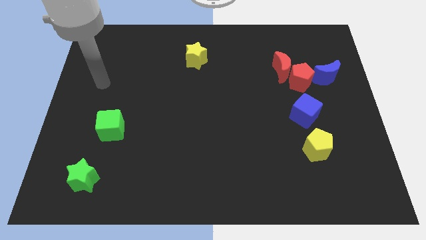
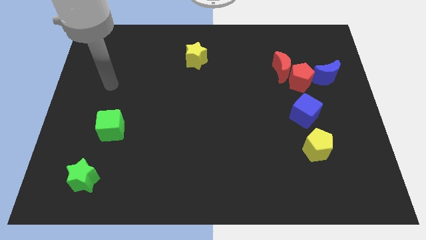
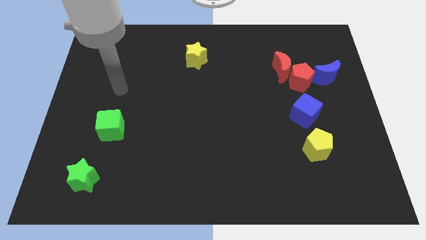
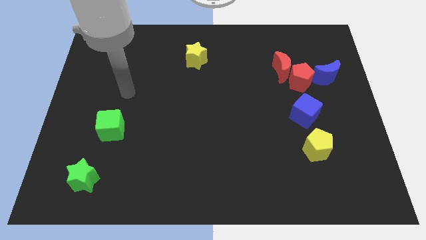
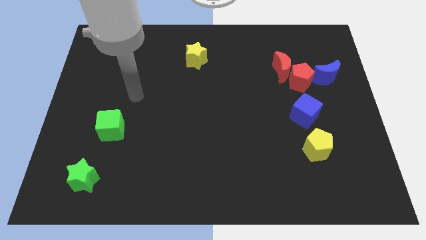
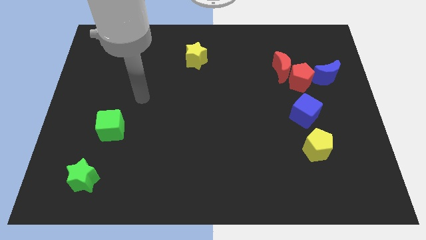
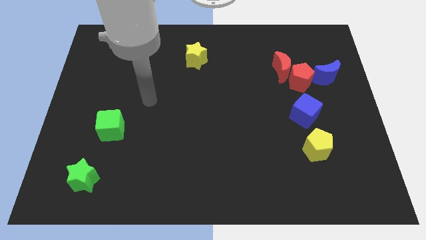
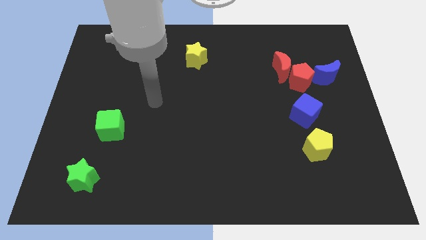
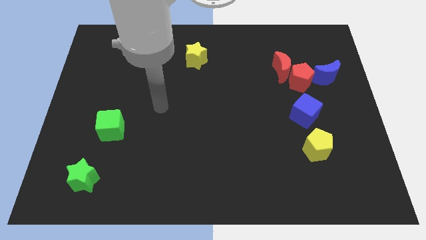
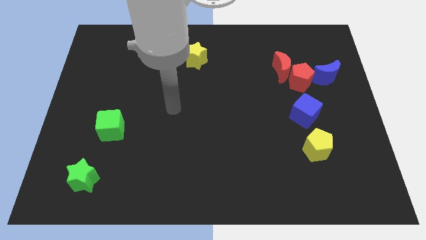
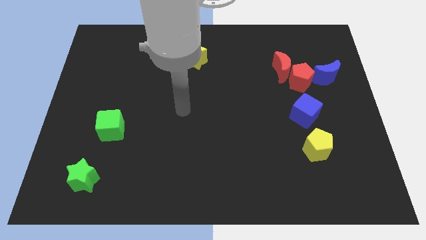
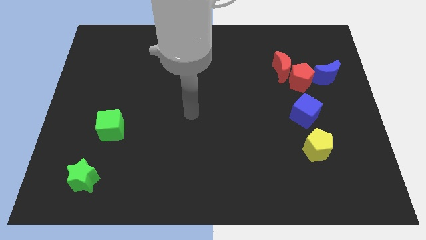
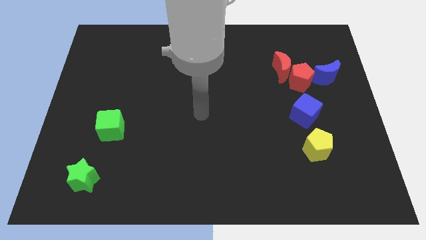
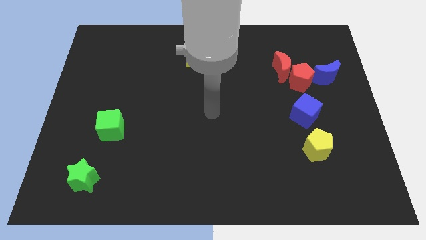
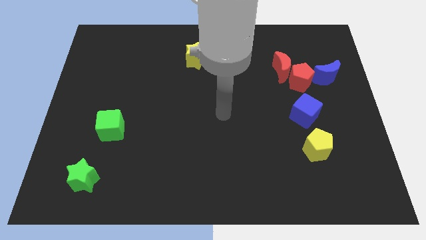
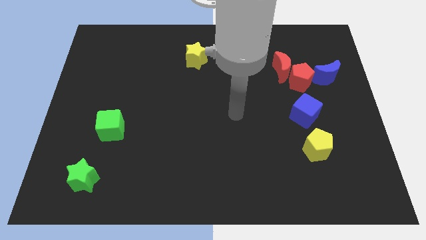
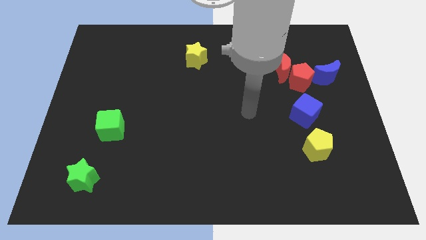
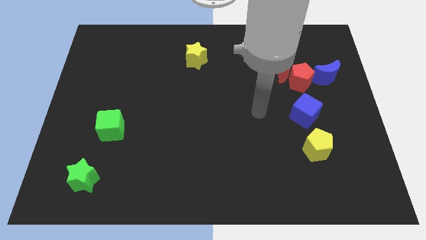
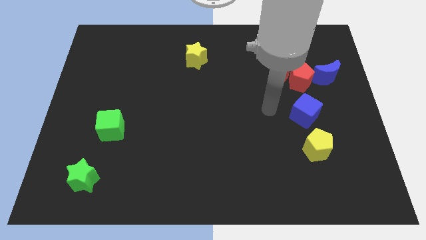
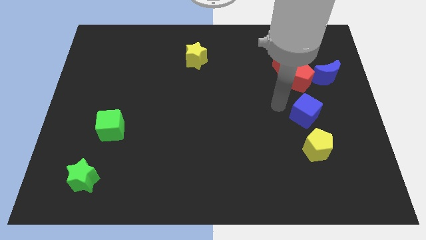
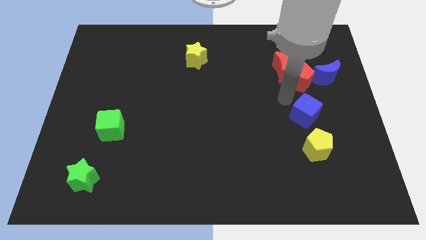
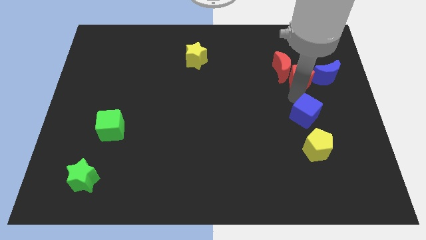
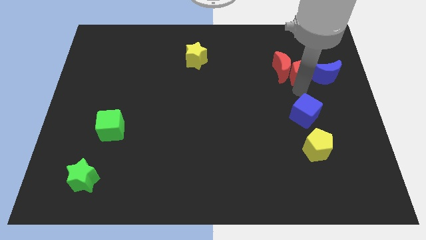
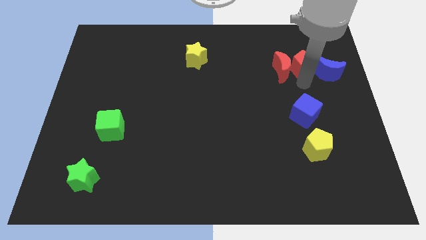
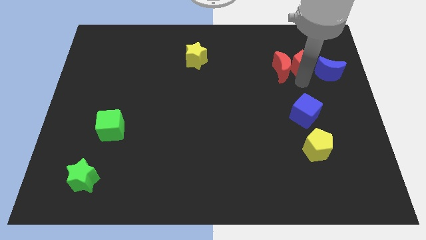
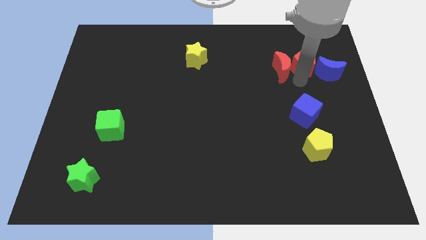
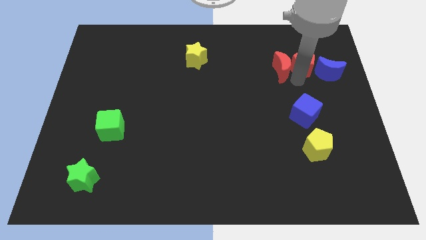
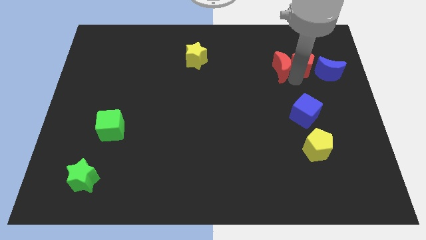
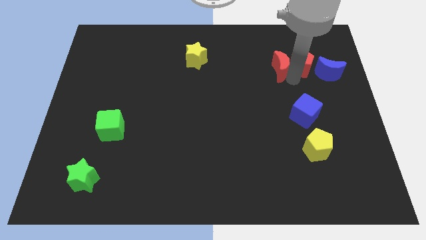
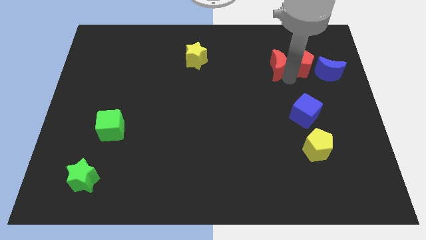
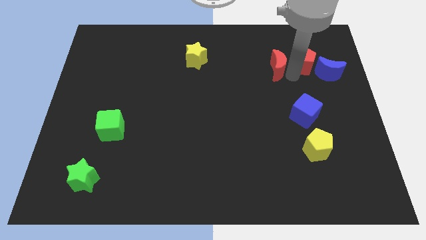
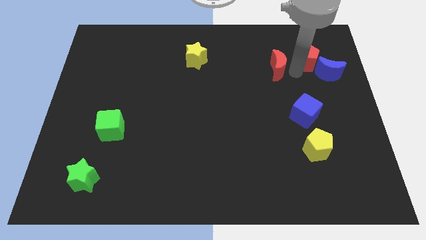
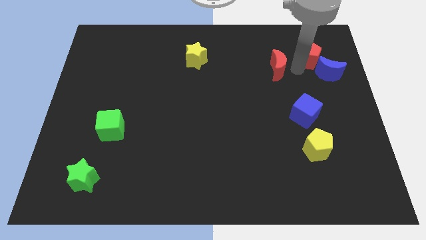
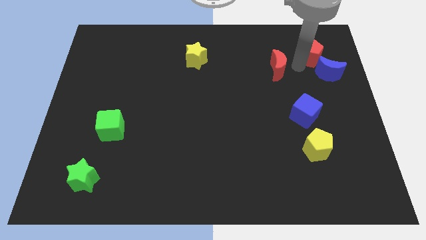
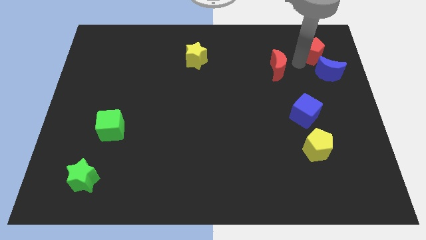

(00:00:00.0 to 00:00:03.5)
separate the red moon from the red pentagon

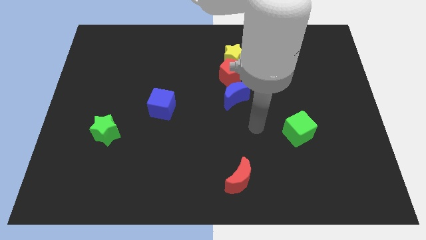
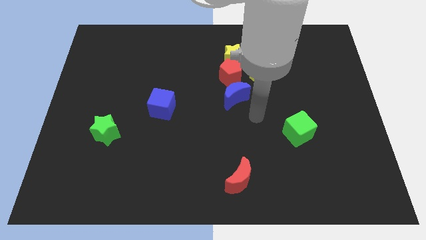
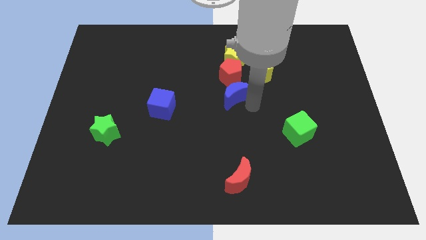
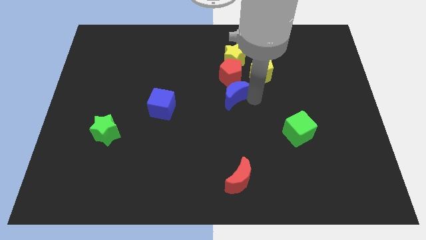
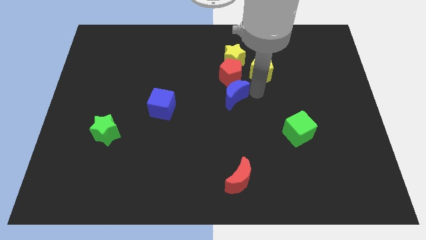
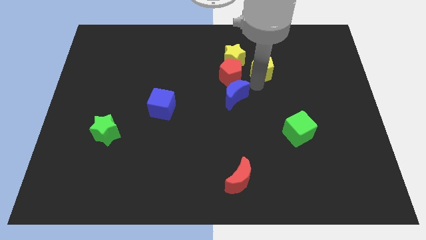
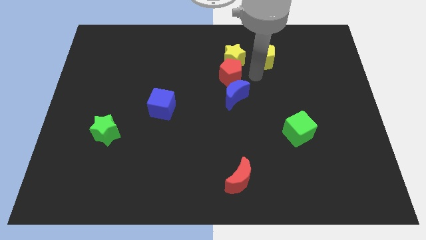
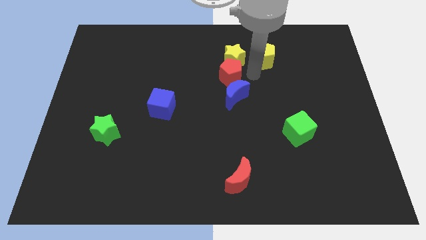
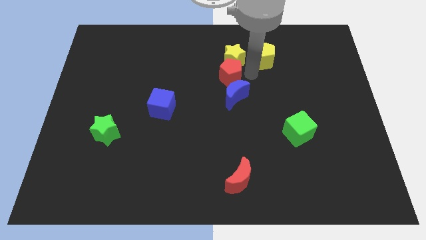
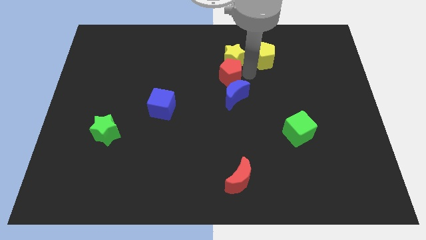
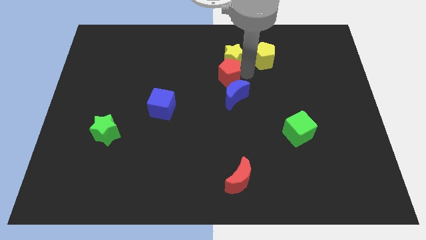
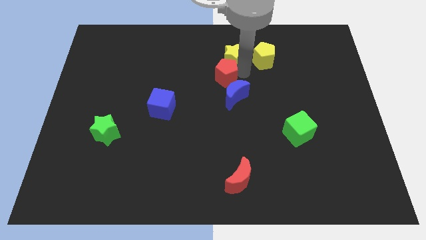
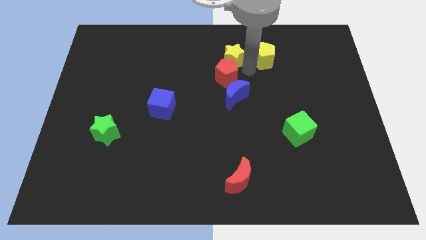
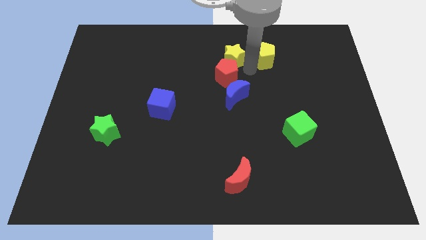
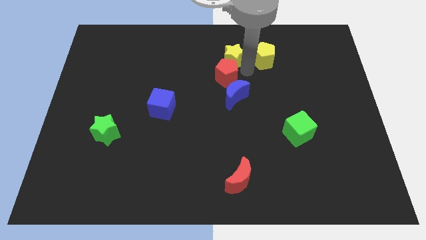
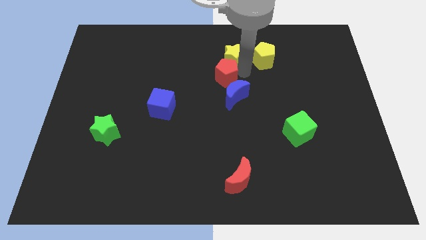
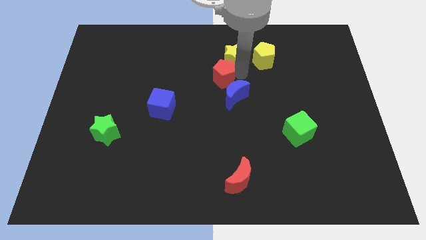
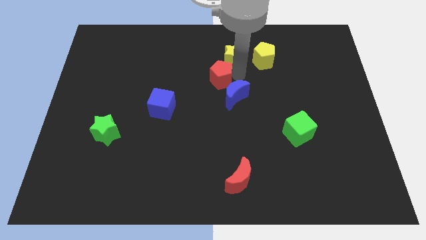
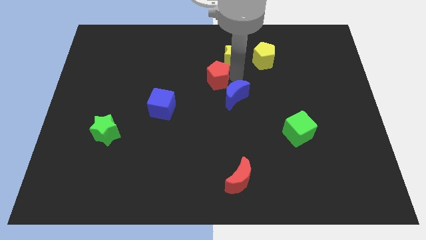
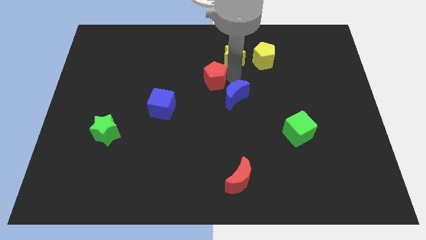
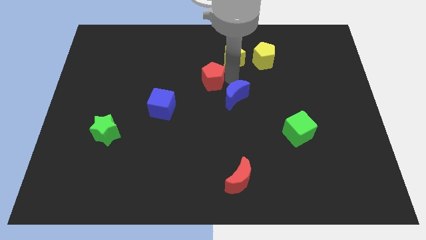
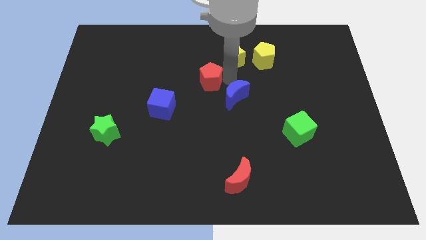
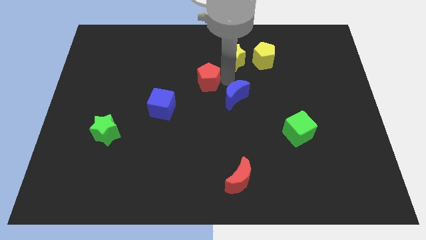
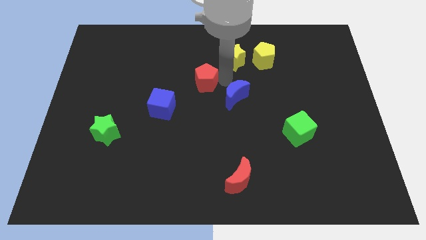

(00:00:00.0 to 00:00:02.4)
pull the red pentagon apart from the yellow star, blue moon, and yellow pentagon

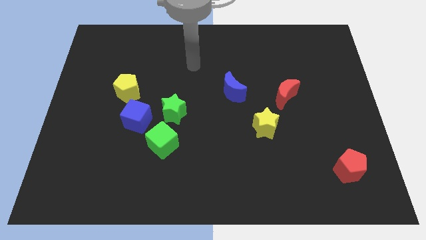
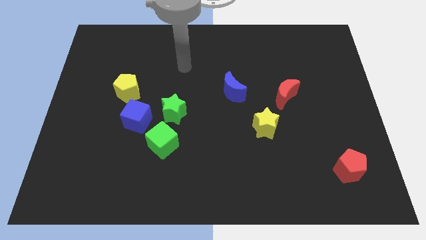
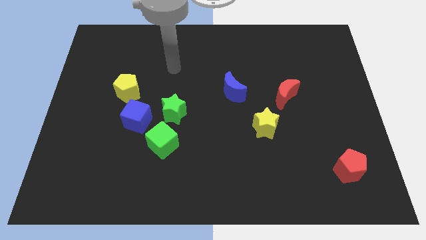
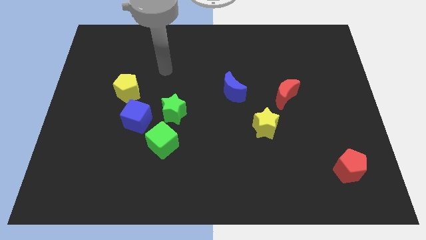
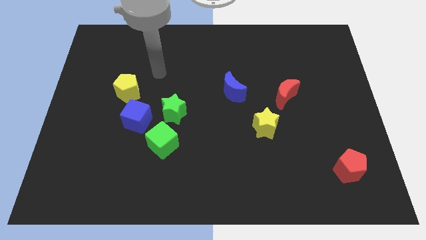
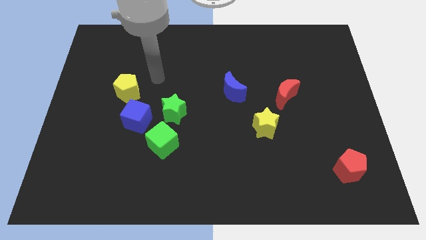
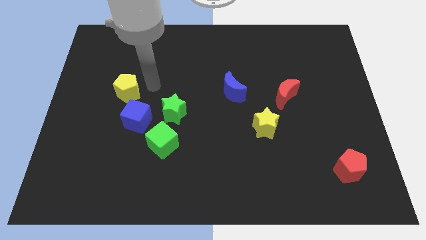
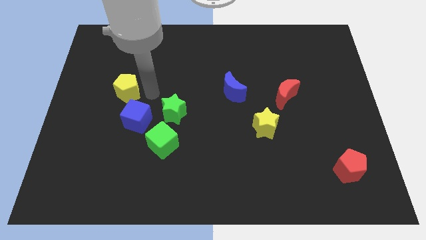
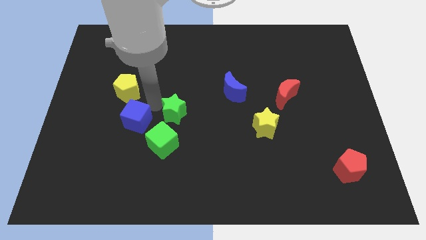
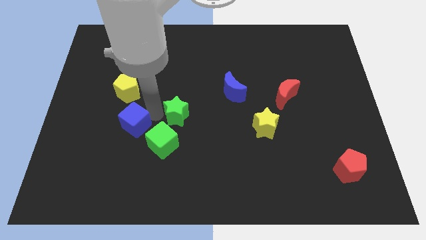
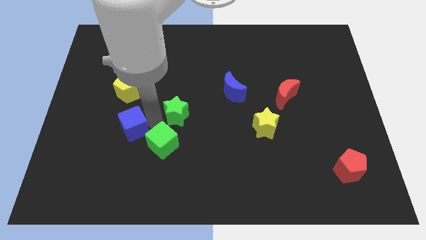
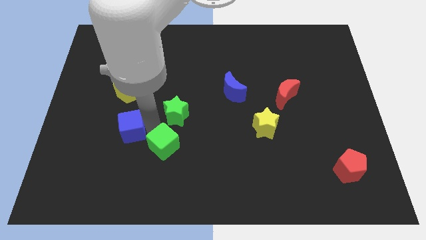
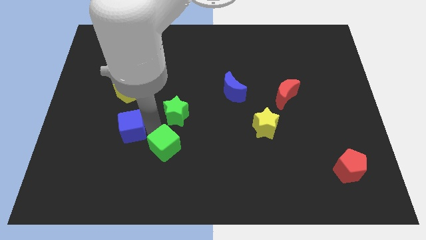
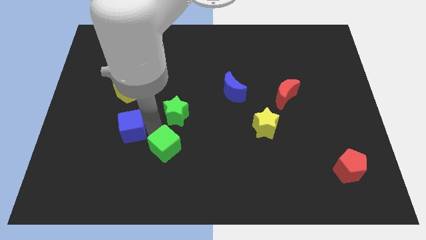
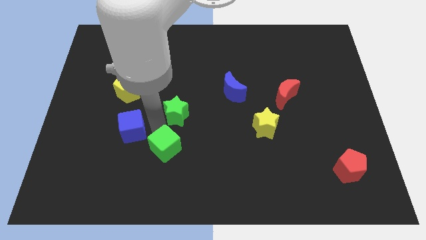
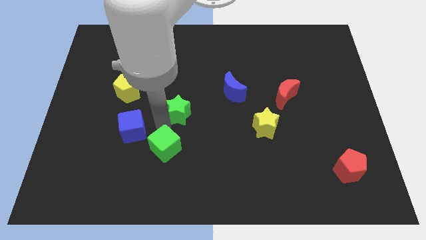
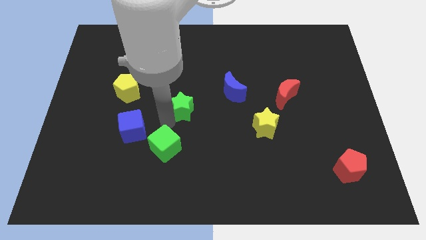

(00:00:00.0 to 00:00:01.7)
move the green star away from the blue cube and green cube

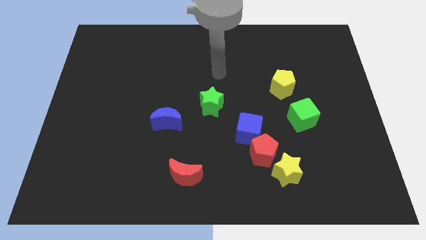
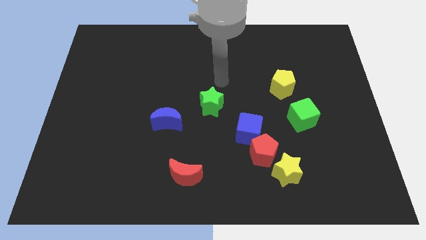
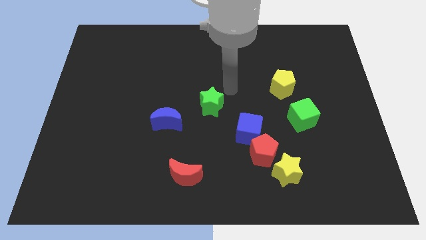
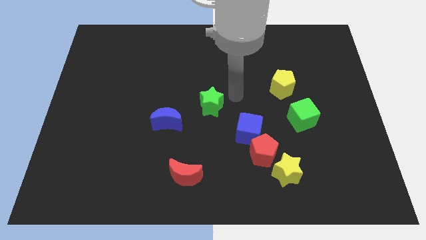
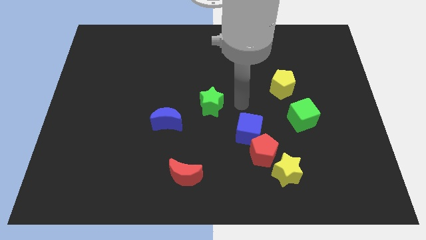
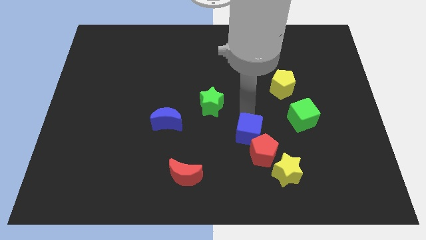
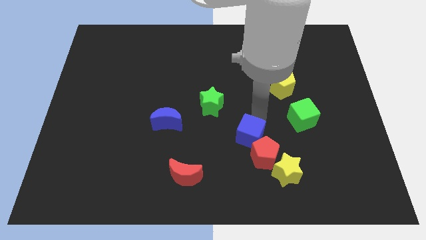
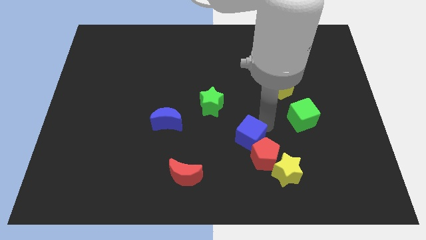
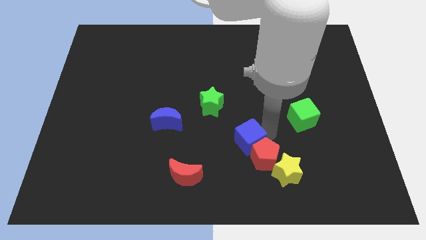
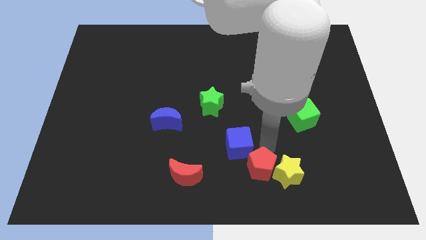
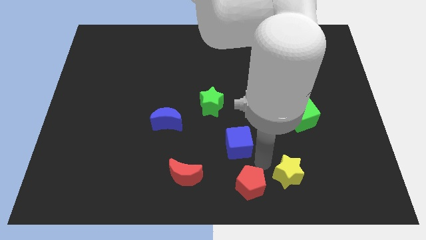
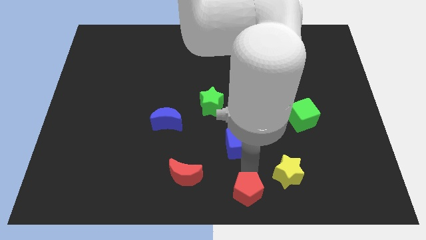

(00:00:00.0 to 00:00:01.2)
pull the blue cube apart from the red pentagon

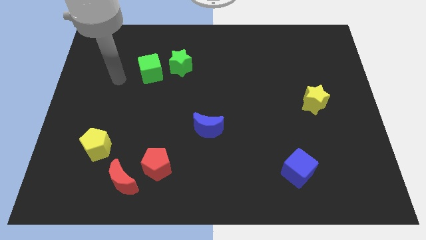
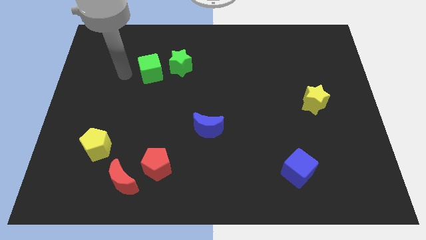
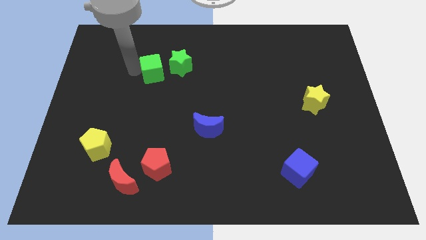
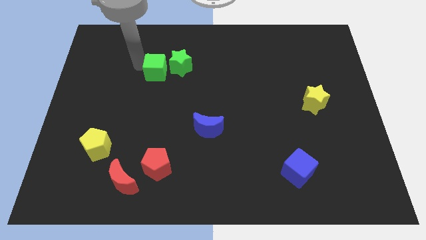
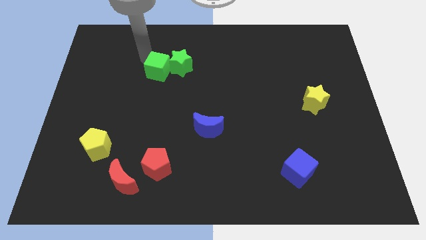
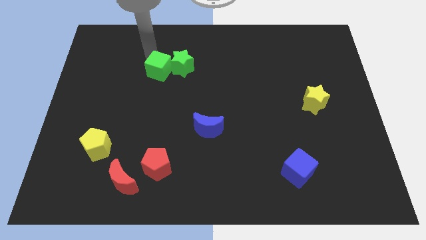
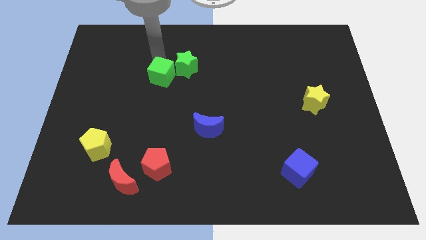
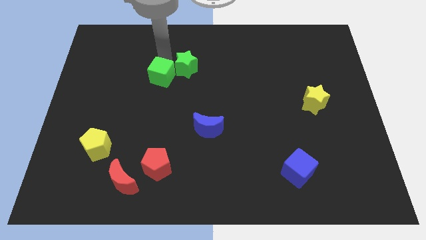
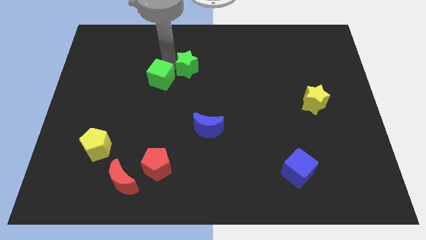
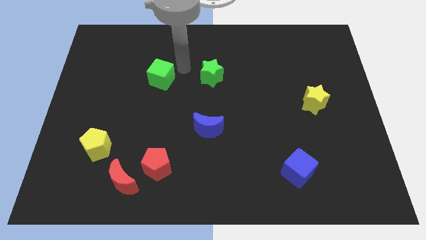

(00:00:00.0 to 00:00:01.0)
move the green cube away from the green star
